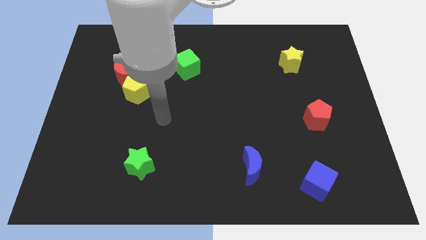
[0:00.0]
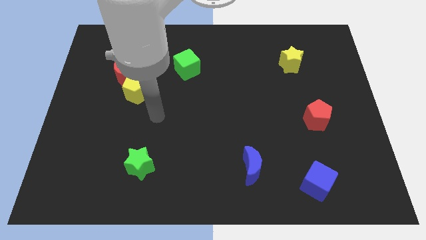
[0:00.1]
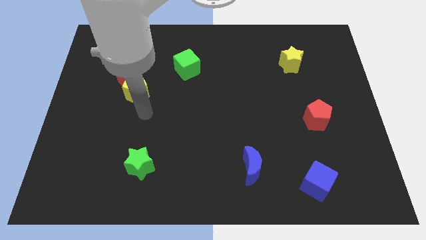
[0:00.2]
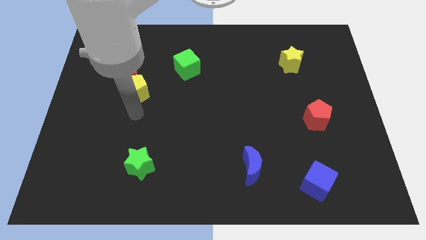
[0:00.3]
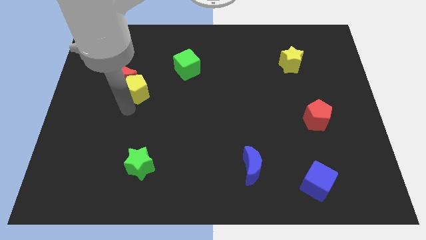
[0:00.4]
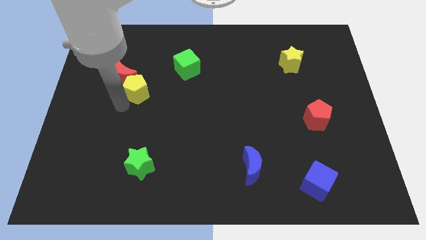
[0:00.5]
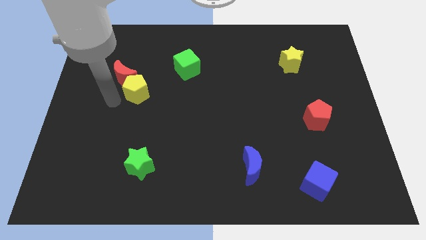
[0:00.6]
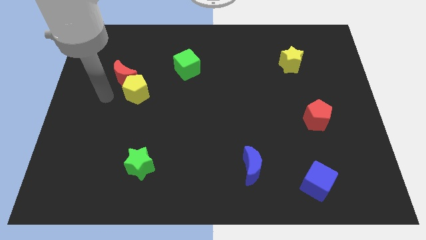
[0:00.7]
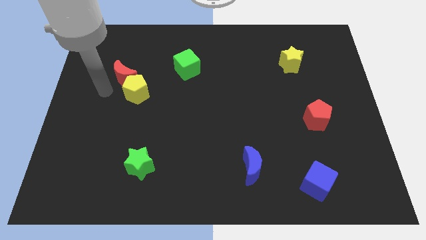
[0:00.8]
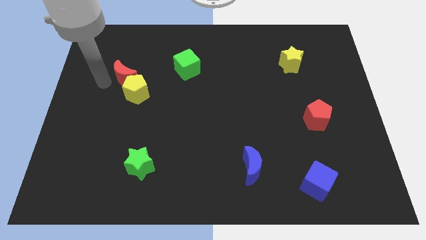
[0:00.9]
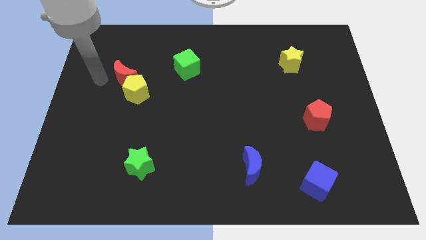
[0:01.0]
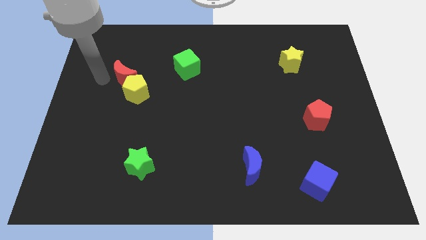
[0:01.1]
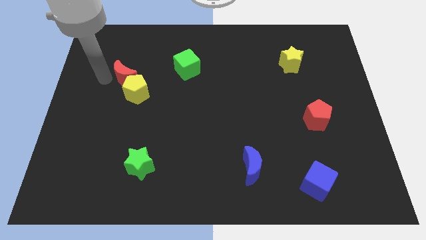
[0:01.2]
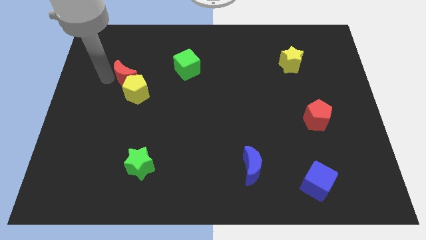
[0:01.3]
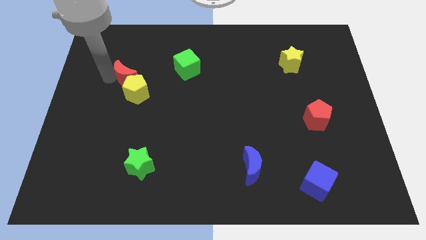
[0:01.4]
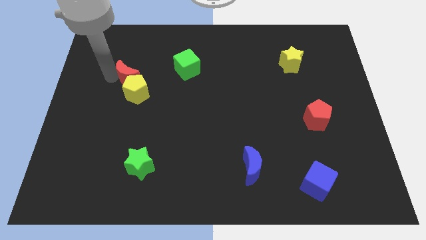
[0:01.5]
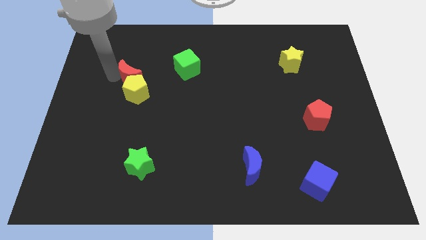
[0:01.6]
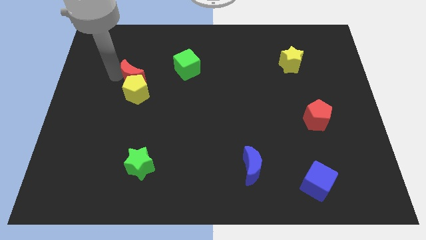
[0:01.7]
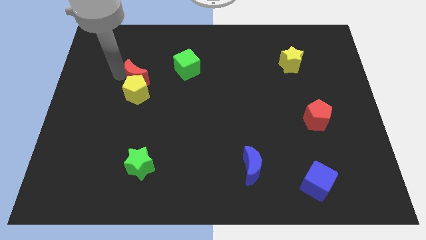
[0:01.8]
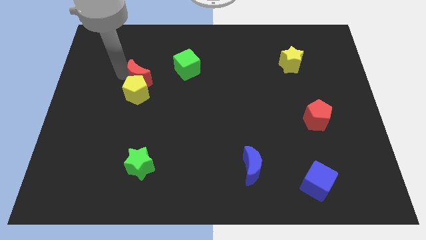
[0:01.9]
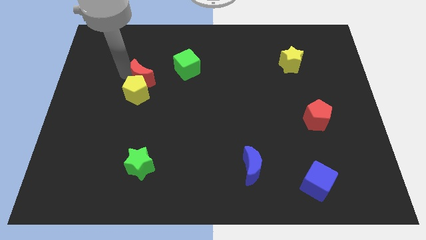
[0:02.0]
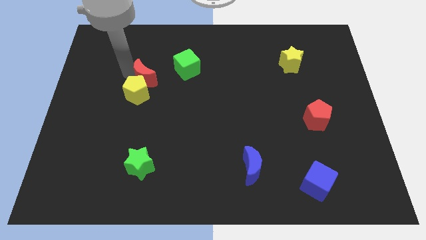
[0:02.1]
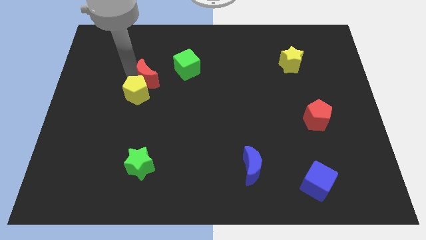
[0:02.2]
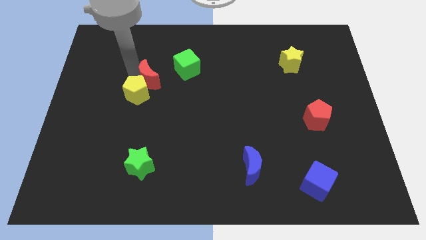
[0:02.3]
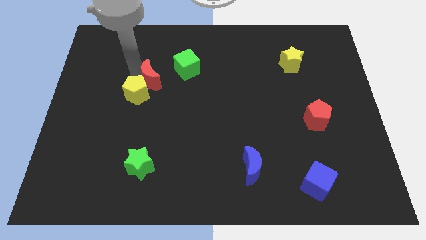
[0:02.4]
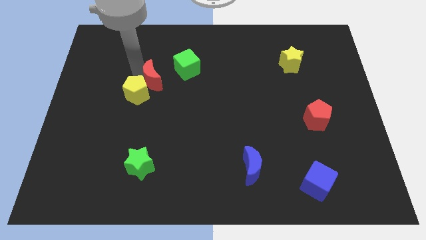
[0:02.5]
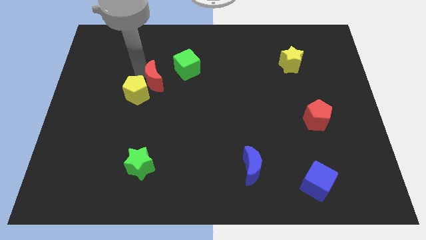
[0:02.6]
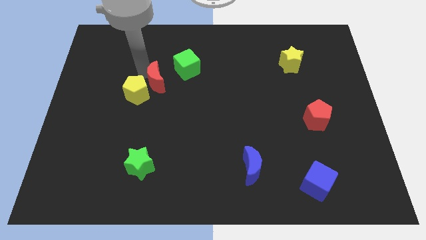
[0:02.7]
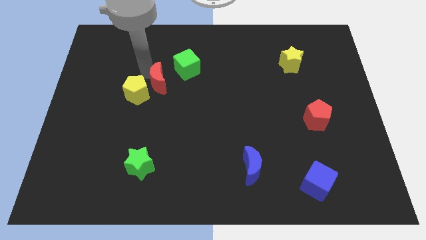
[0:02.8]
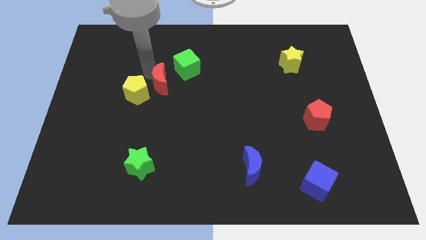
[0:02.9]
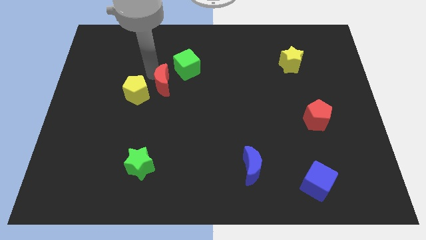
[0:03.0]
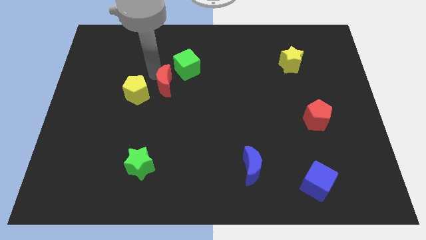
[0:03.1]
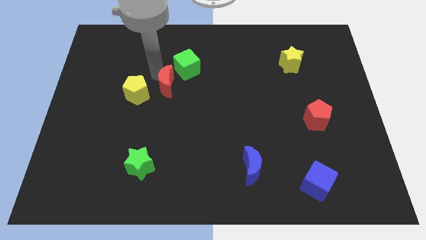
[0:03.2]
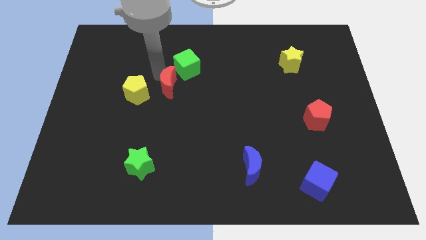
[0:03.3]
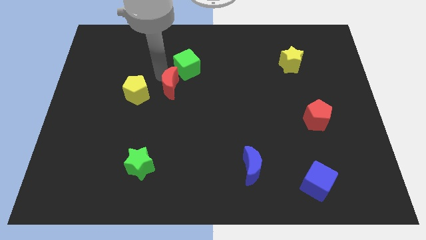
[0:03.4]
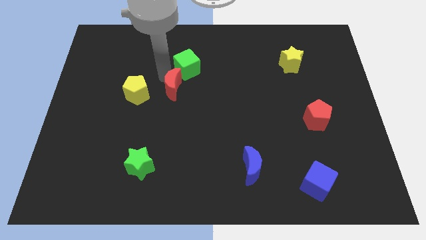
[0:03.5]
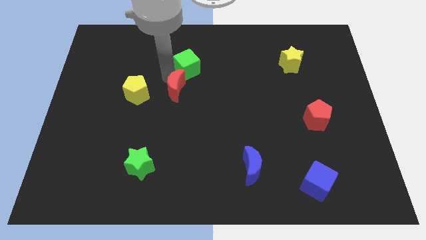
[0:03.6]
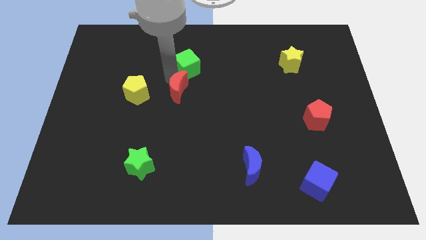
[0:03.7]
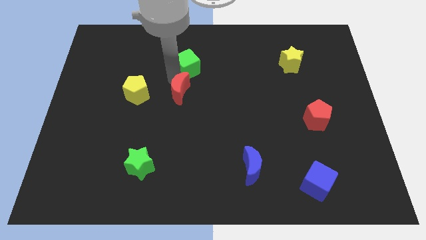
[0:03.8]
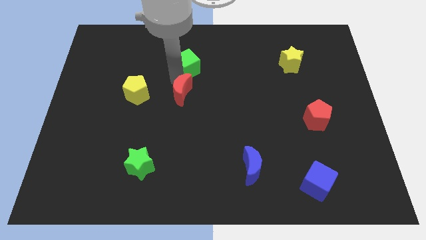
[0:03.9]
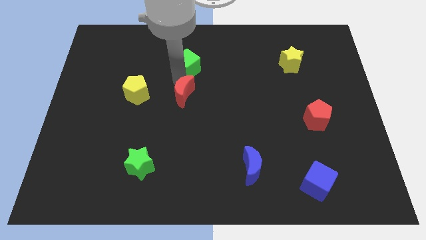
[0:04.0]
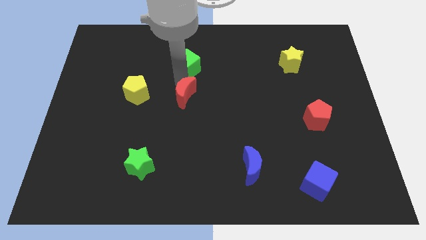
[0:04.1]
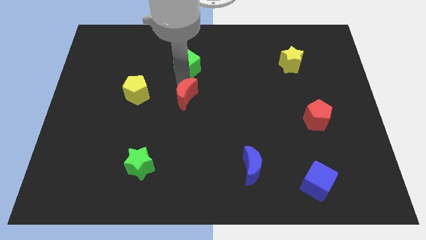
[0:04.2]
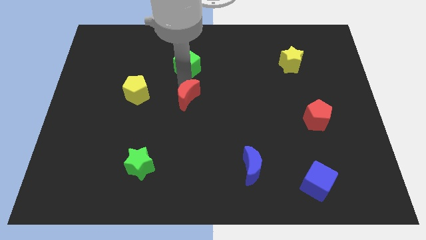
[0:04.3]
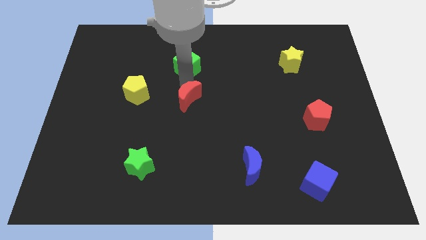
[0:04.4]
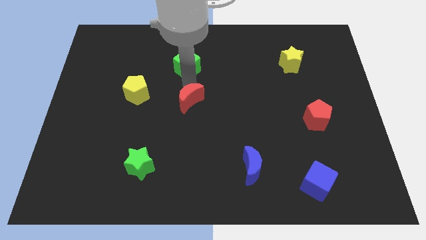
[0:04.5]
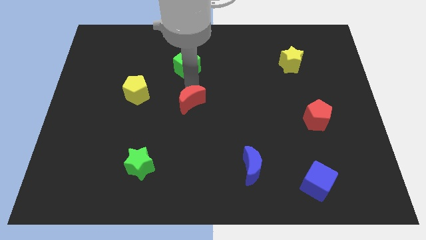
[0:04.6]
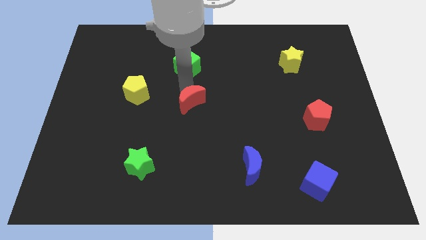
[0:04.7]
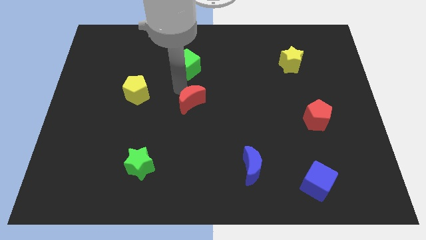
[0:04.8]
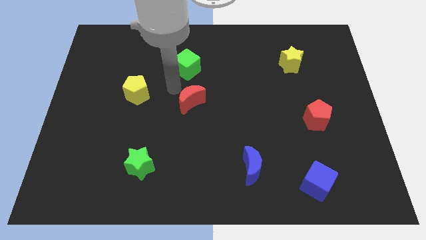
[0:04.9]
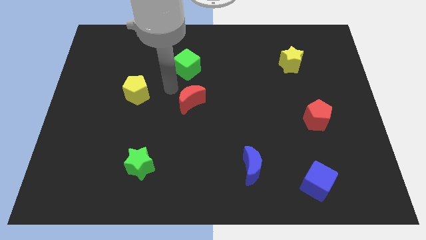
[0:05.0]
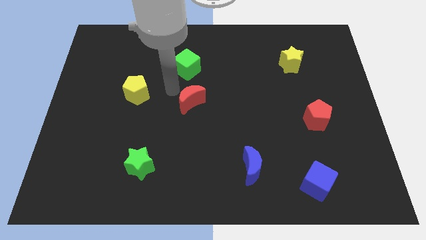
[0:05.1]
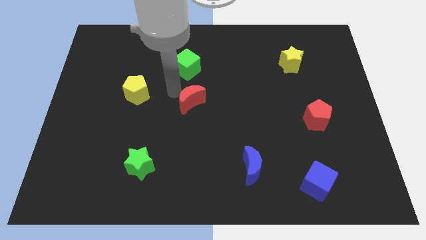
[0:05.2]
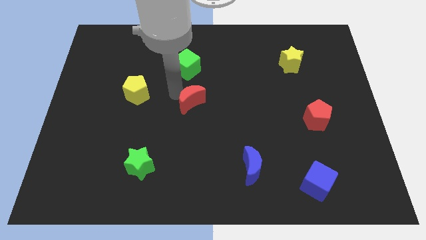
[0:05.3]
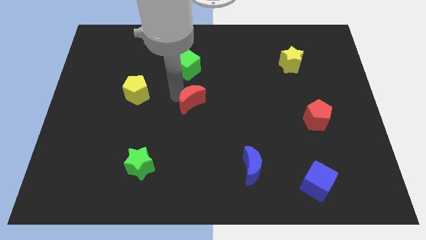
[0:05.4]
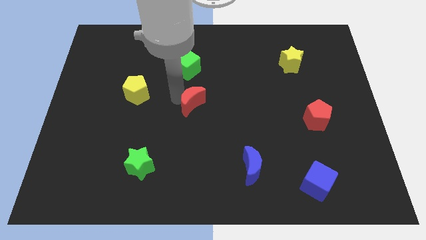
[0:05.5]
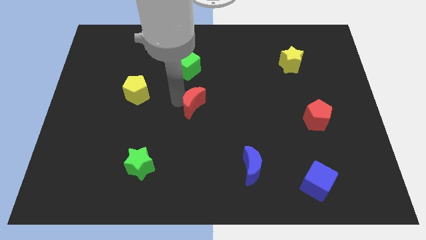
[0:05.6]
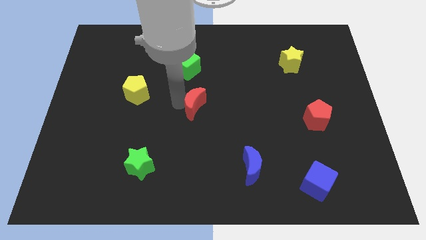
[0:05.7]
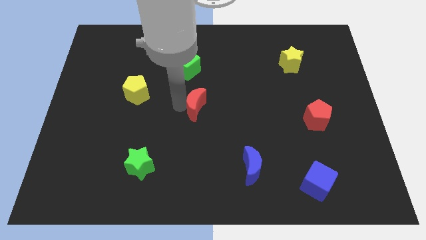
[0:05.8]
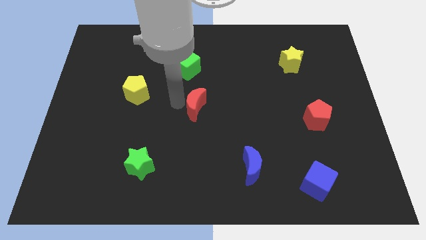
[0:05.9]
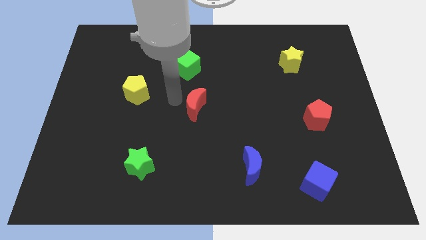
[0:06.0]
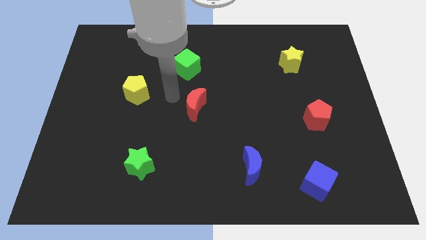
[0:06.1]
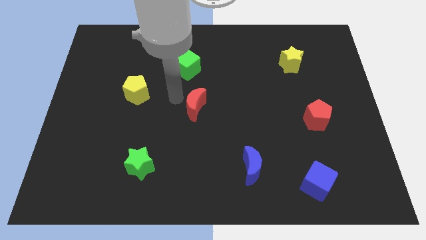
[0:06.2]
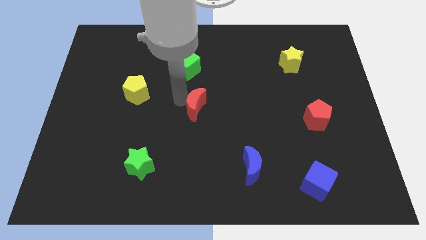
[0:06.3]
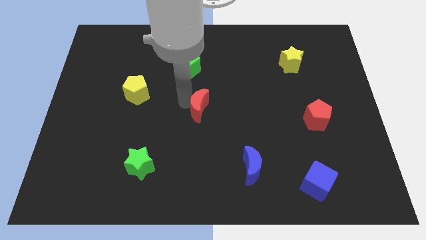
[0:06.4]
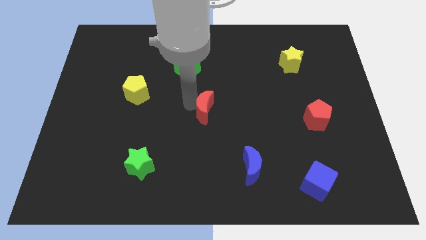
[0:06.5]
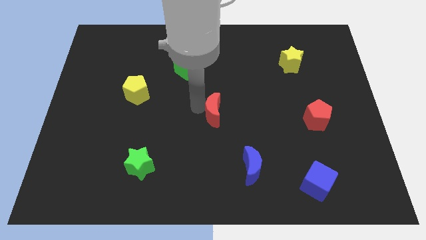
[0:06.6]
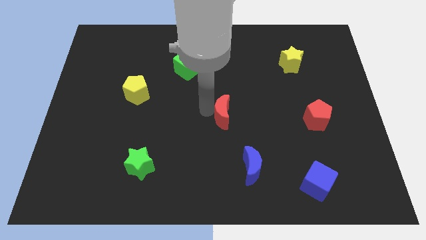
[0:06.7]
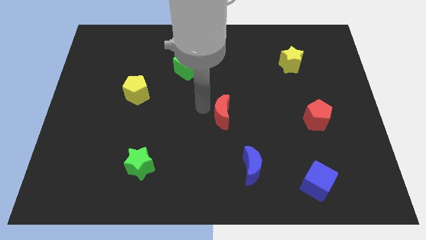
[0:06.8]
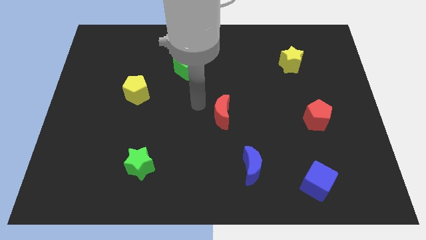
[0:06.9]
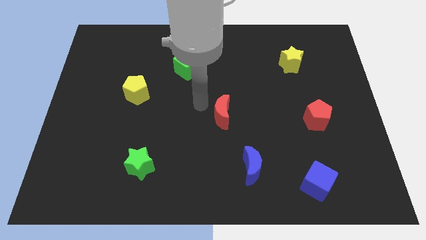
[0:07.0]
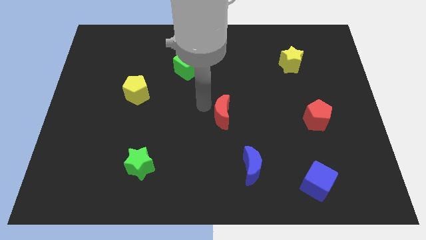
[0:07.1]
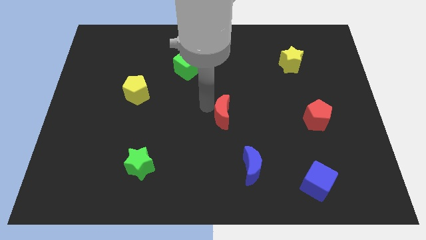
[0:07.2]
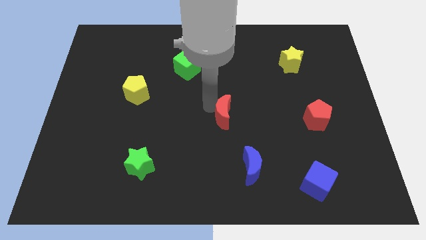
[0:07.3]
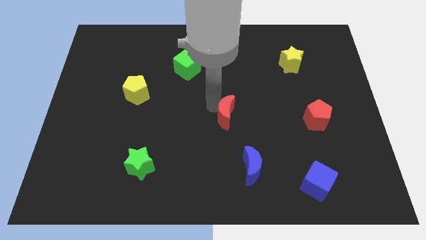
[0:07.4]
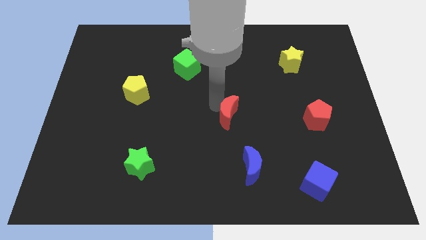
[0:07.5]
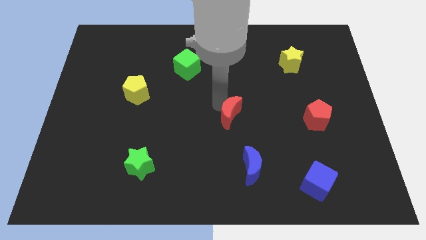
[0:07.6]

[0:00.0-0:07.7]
put the red moon above the blue moon

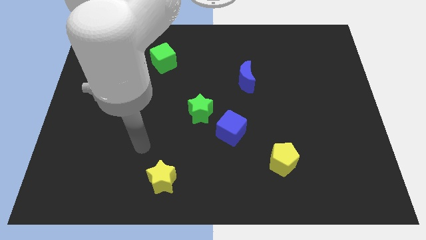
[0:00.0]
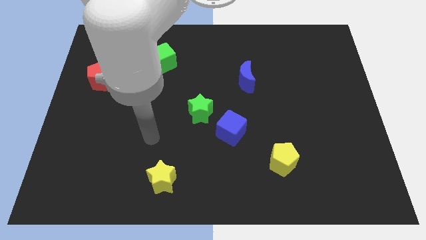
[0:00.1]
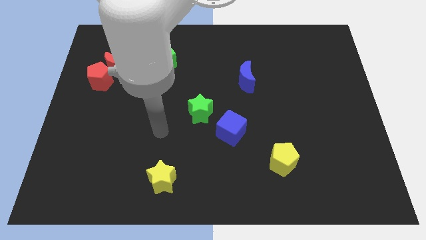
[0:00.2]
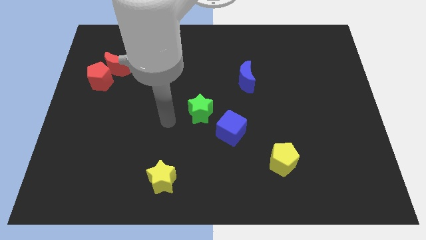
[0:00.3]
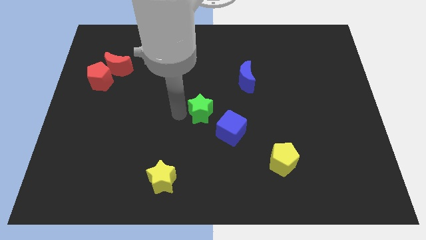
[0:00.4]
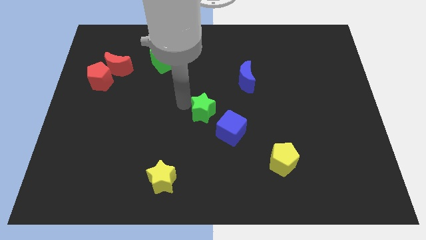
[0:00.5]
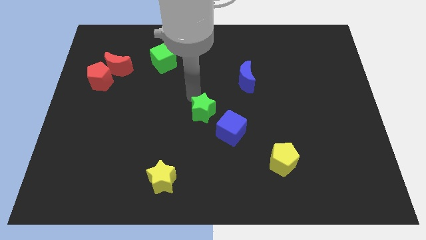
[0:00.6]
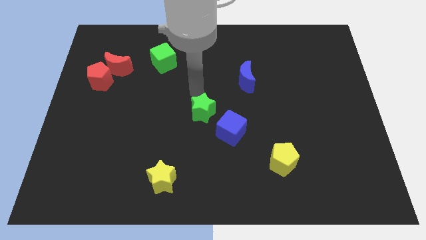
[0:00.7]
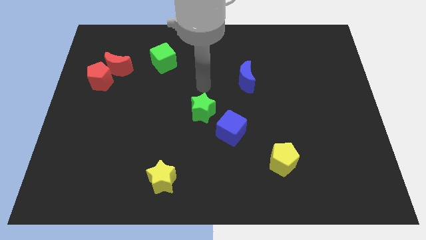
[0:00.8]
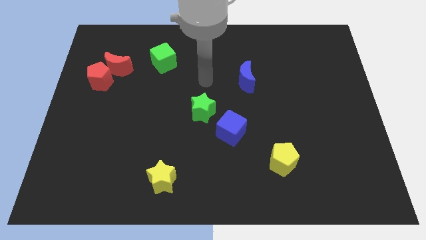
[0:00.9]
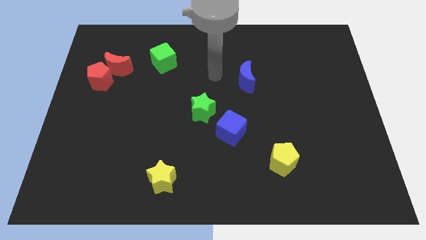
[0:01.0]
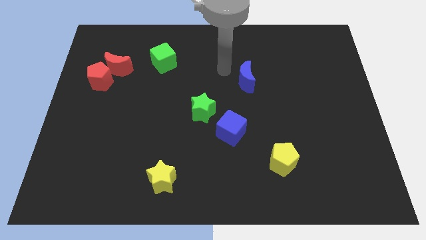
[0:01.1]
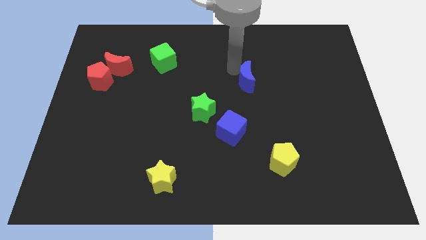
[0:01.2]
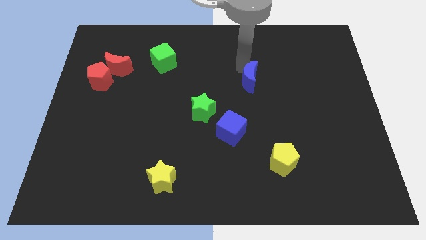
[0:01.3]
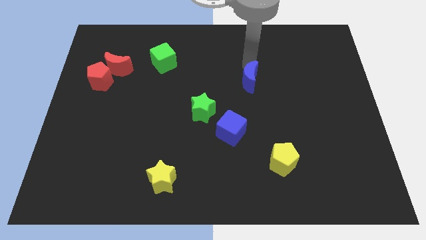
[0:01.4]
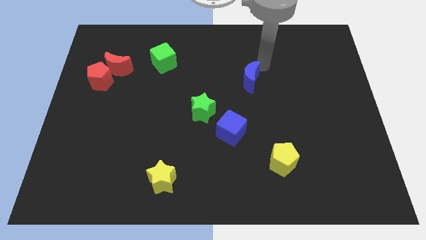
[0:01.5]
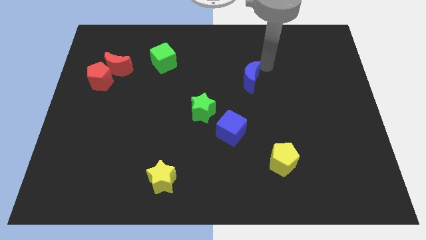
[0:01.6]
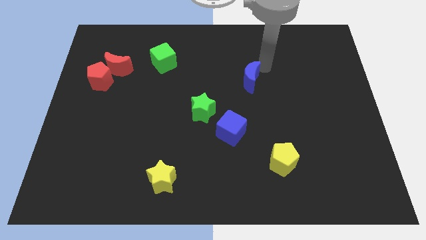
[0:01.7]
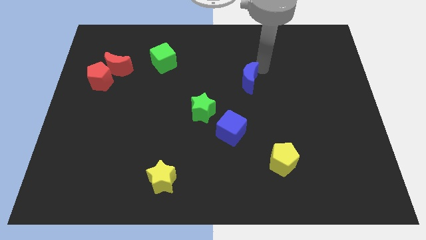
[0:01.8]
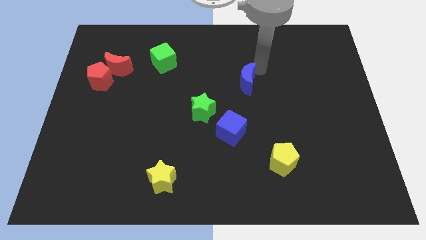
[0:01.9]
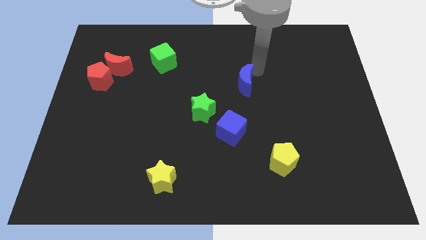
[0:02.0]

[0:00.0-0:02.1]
slide the blue moon to the top side of the blue cube
